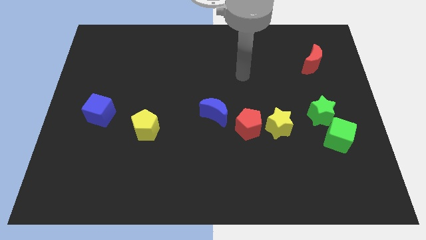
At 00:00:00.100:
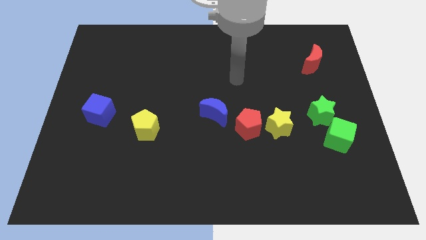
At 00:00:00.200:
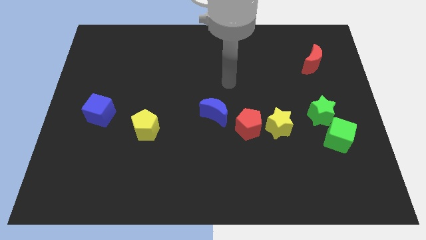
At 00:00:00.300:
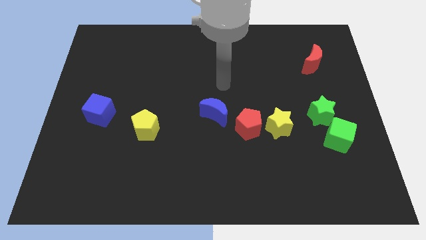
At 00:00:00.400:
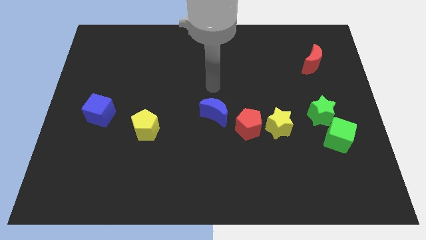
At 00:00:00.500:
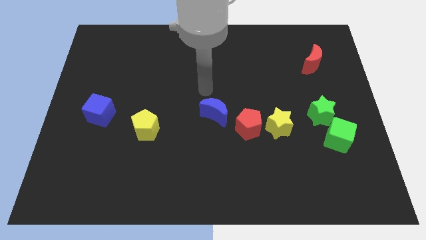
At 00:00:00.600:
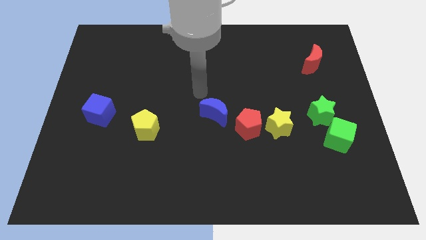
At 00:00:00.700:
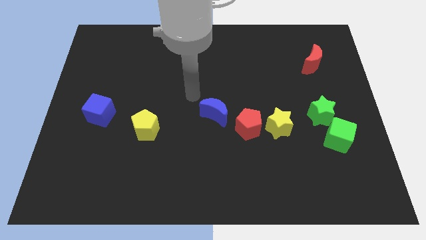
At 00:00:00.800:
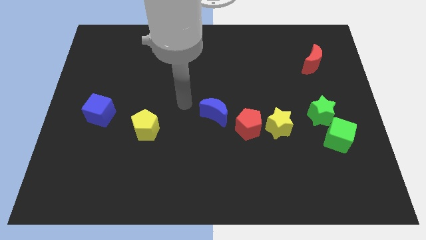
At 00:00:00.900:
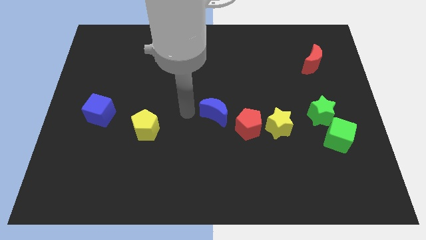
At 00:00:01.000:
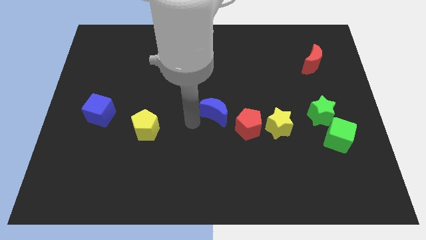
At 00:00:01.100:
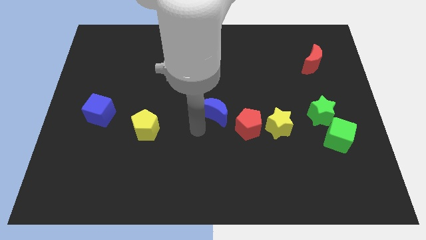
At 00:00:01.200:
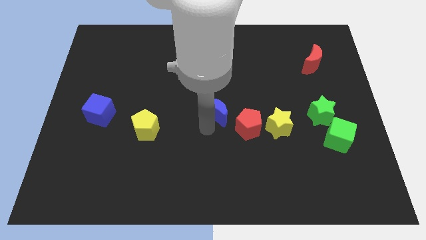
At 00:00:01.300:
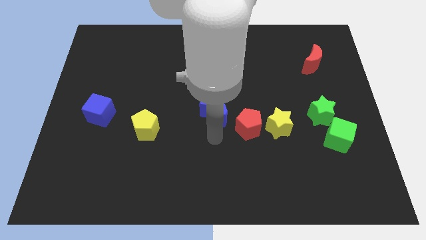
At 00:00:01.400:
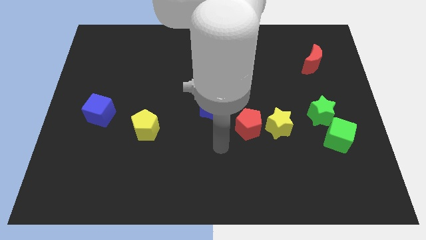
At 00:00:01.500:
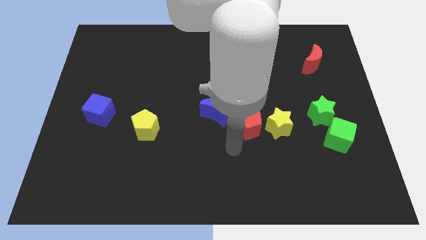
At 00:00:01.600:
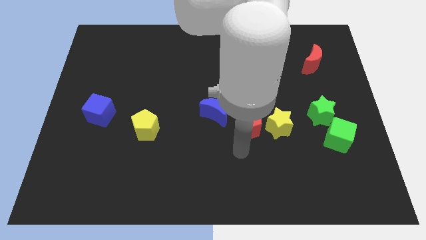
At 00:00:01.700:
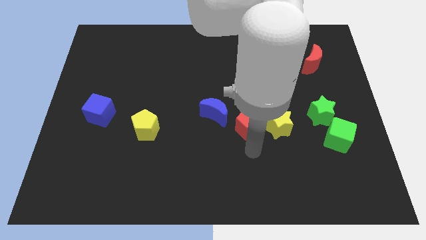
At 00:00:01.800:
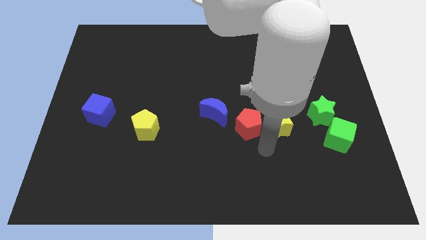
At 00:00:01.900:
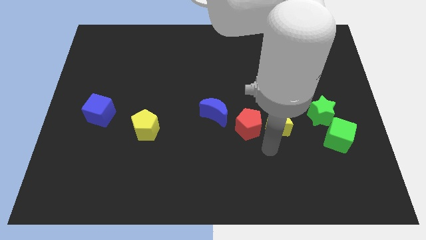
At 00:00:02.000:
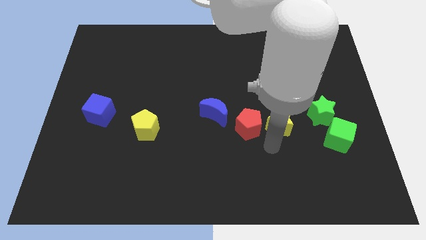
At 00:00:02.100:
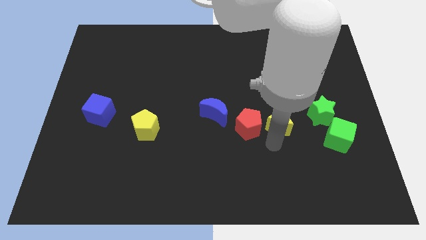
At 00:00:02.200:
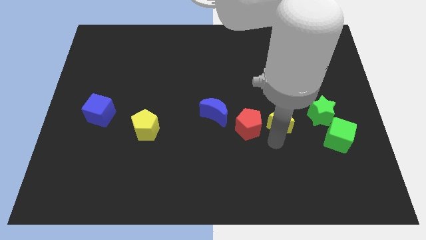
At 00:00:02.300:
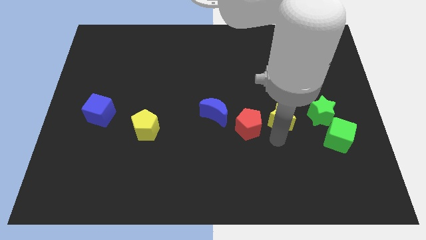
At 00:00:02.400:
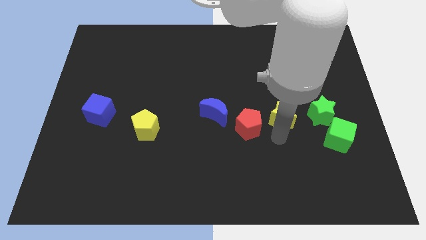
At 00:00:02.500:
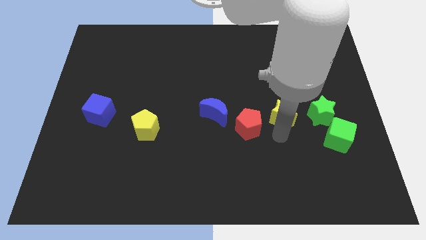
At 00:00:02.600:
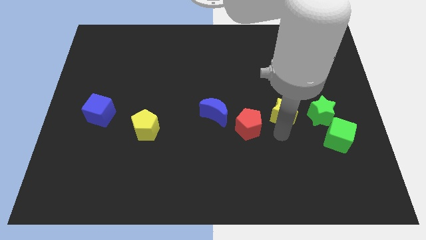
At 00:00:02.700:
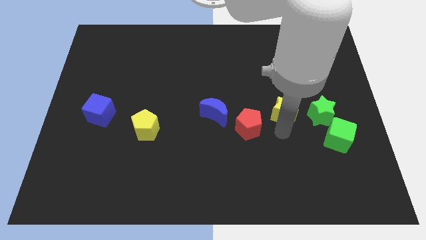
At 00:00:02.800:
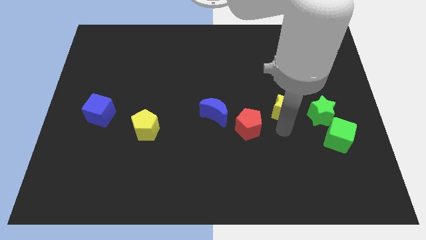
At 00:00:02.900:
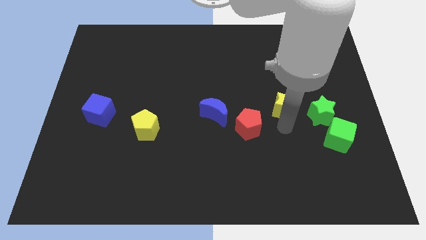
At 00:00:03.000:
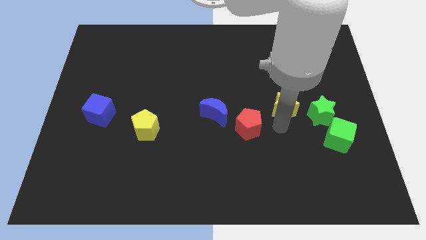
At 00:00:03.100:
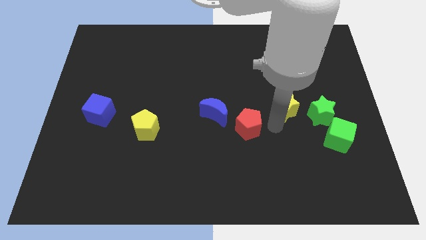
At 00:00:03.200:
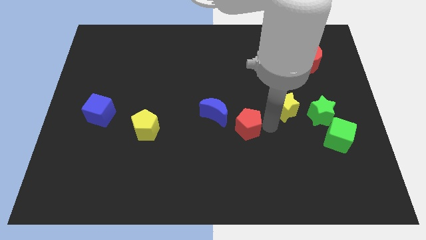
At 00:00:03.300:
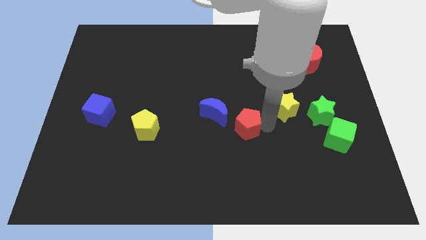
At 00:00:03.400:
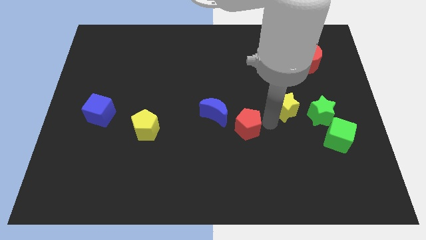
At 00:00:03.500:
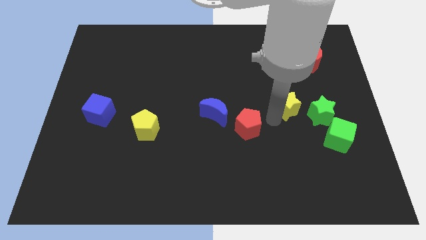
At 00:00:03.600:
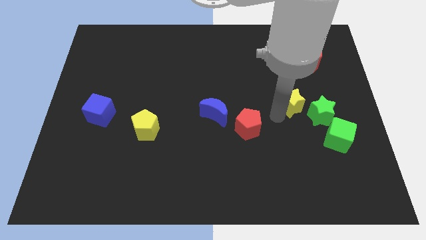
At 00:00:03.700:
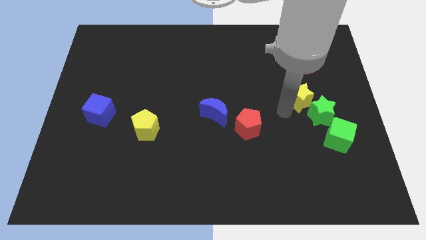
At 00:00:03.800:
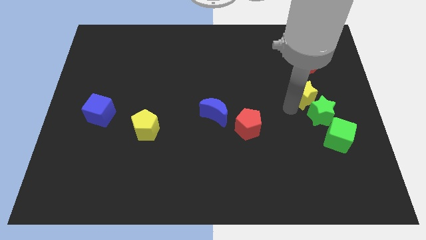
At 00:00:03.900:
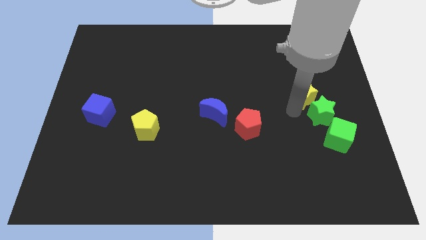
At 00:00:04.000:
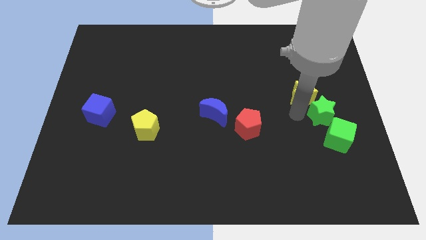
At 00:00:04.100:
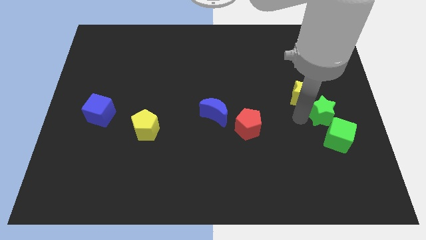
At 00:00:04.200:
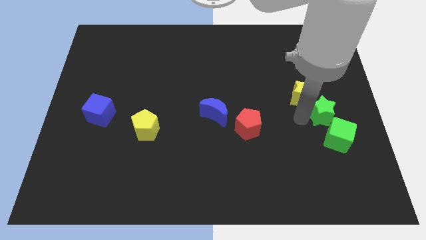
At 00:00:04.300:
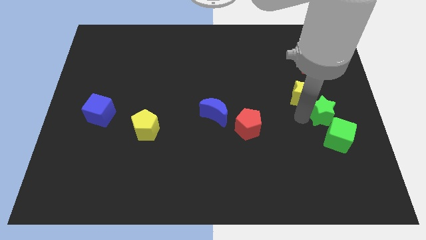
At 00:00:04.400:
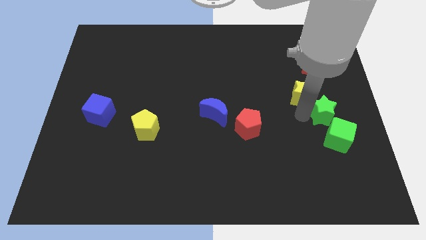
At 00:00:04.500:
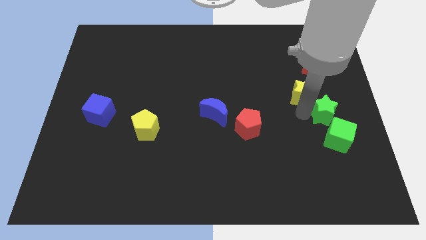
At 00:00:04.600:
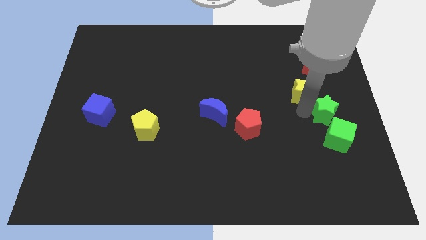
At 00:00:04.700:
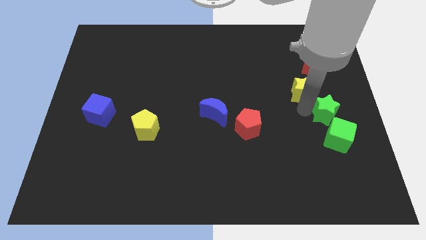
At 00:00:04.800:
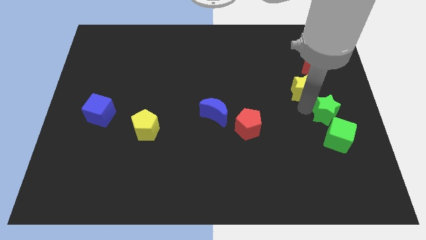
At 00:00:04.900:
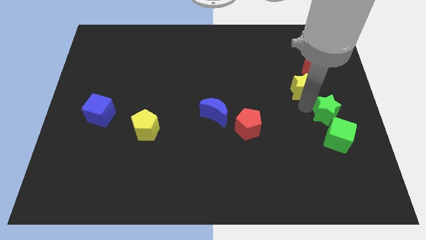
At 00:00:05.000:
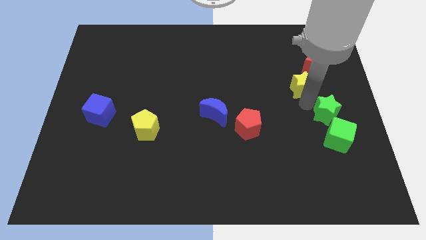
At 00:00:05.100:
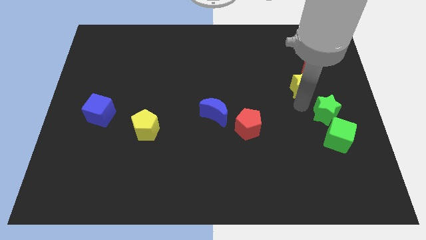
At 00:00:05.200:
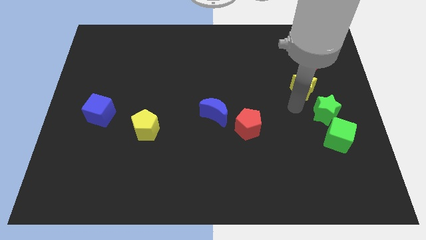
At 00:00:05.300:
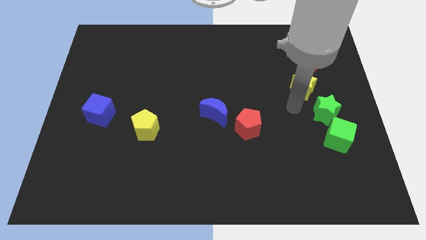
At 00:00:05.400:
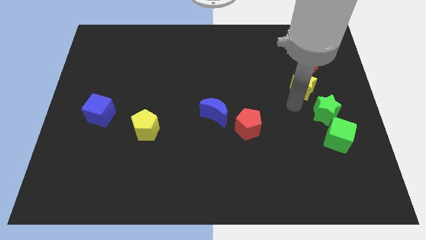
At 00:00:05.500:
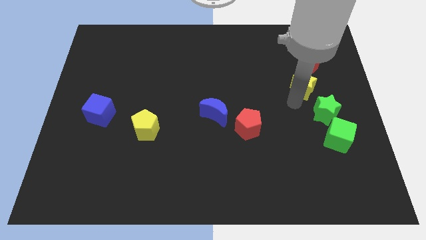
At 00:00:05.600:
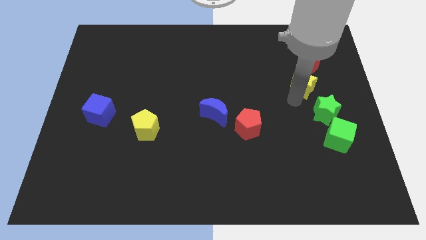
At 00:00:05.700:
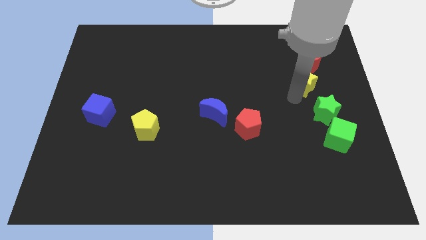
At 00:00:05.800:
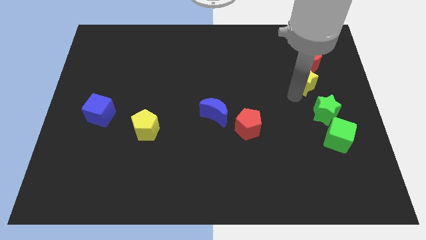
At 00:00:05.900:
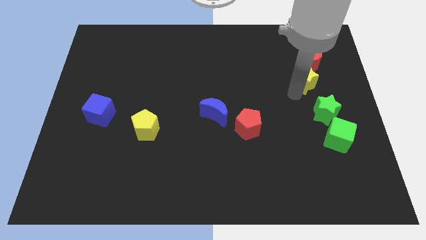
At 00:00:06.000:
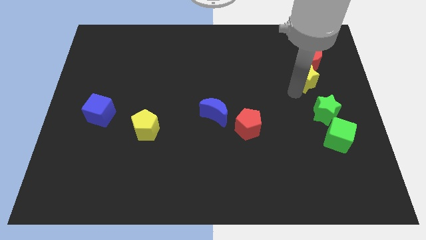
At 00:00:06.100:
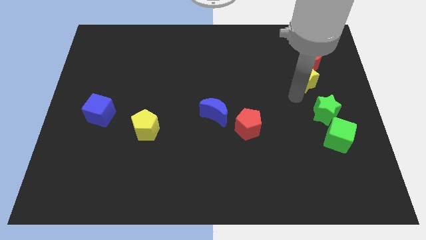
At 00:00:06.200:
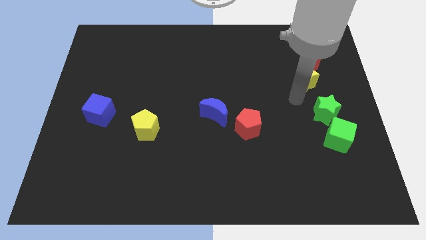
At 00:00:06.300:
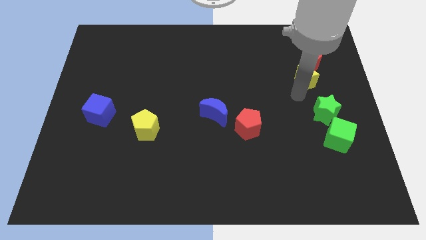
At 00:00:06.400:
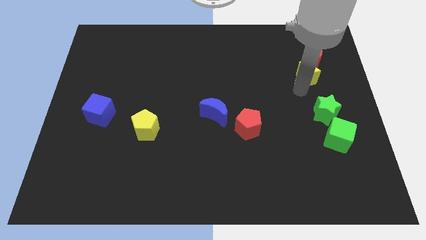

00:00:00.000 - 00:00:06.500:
push the yellow star to the red moon
